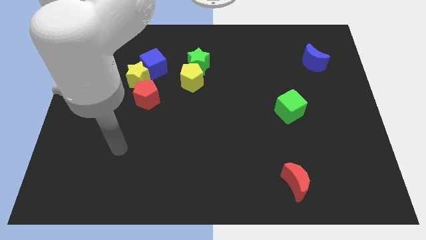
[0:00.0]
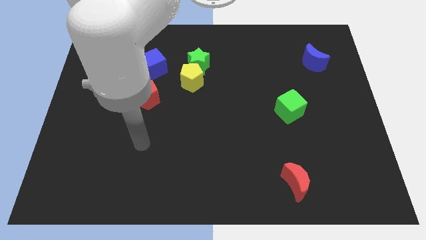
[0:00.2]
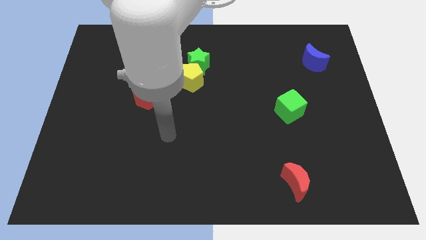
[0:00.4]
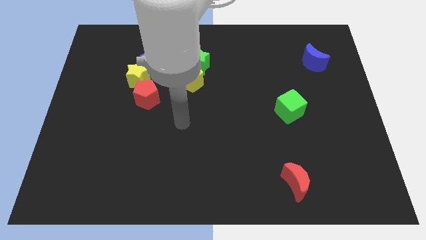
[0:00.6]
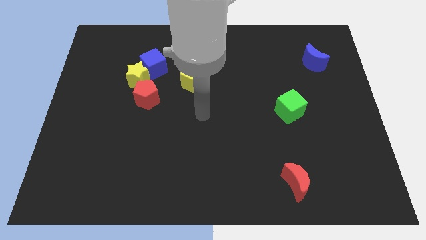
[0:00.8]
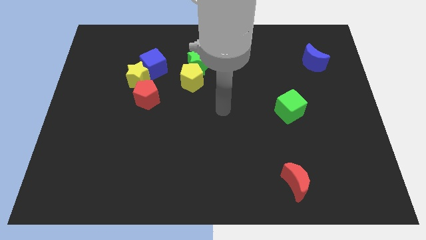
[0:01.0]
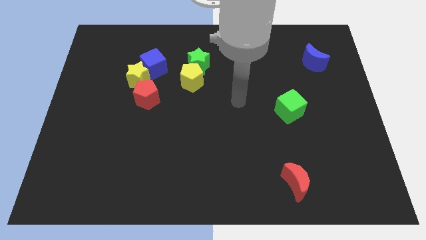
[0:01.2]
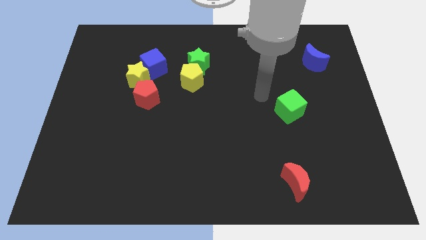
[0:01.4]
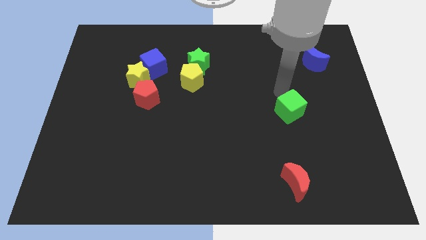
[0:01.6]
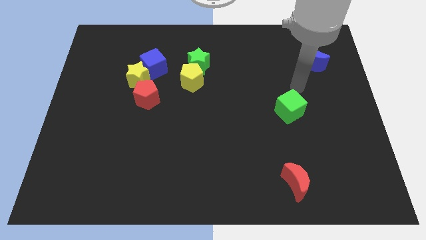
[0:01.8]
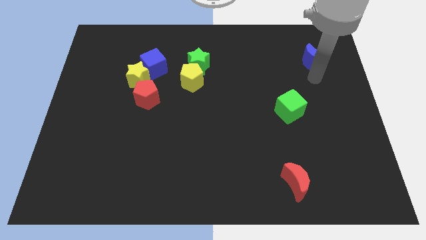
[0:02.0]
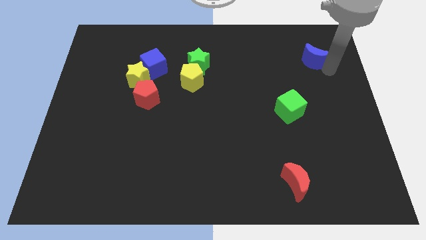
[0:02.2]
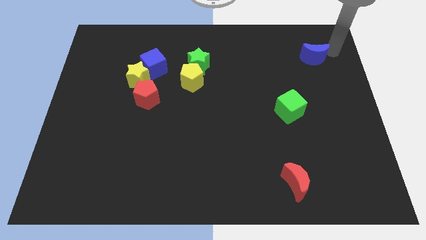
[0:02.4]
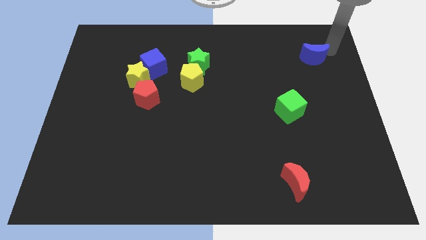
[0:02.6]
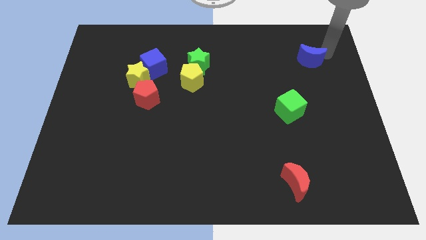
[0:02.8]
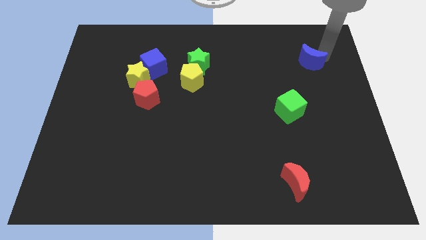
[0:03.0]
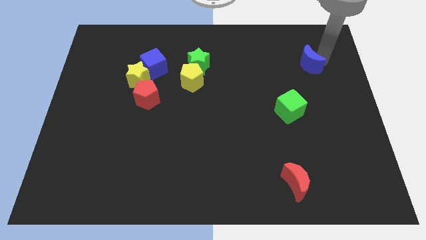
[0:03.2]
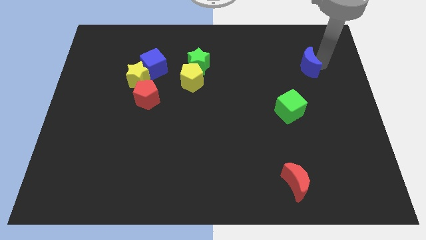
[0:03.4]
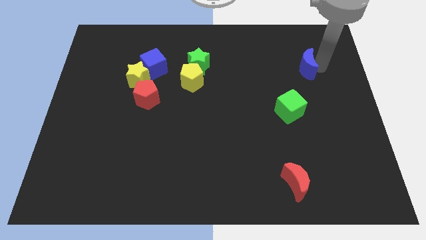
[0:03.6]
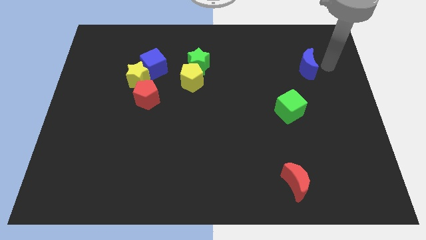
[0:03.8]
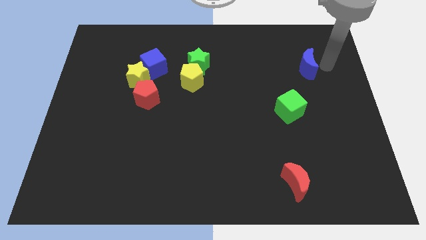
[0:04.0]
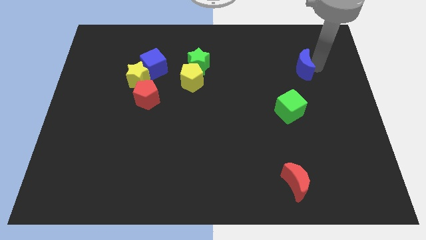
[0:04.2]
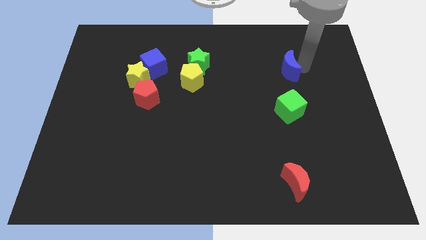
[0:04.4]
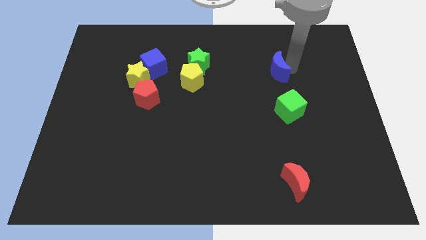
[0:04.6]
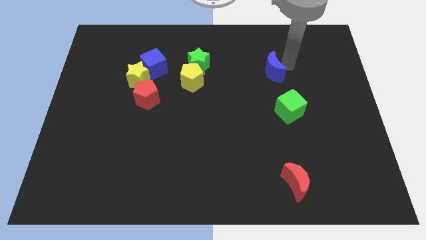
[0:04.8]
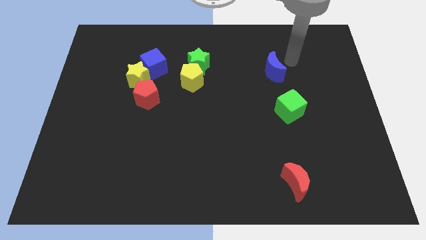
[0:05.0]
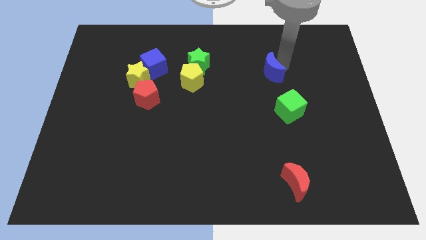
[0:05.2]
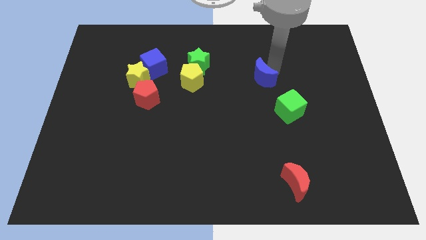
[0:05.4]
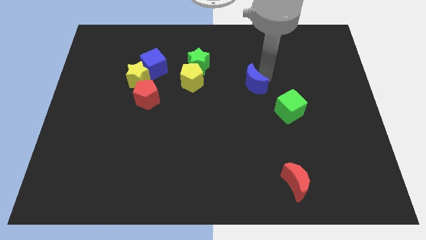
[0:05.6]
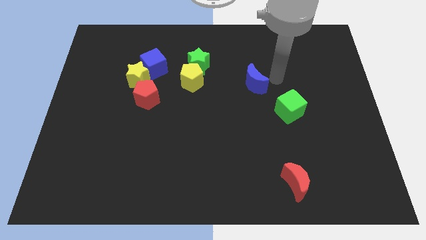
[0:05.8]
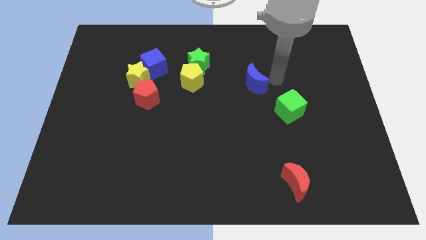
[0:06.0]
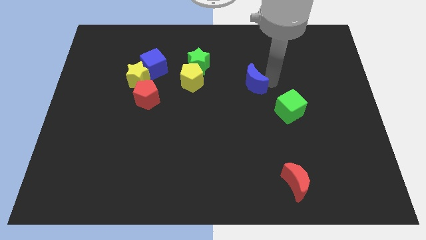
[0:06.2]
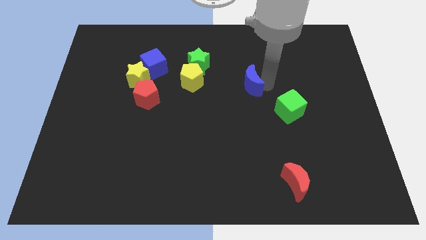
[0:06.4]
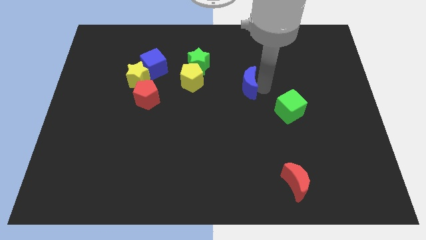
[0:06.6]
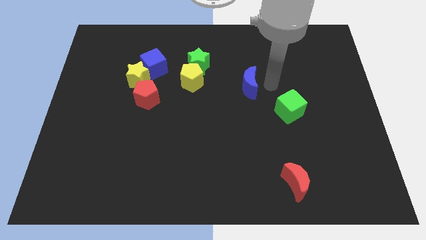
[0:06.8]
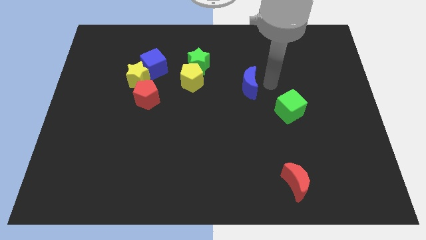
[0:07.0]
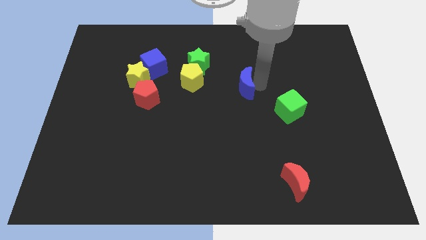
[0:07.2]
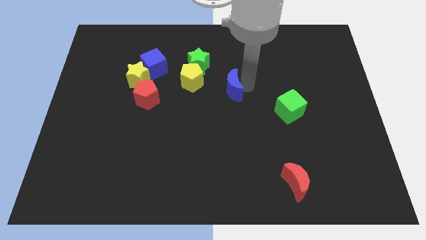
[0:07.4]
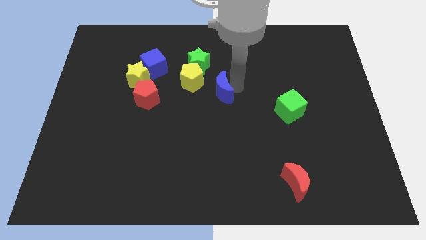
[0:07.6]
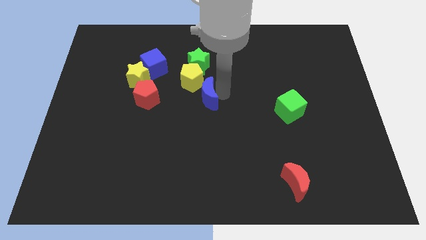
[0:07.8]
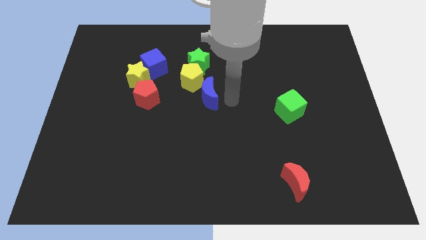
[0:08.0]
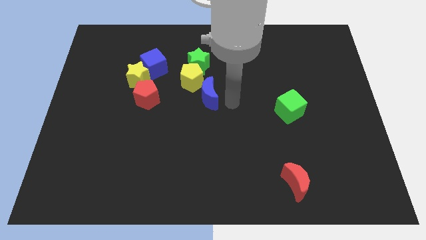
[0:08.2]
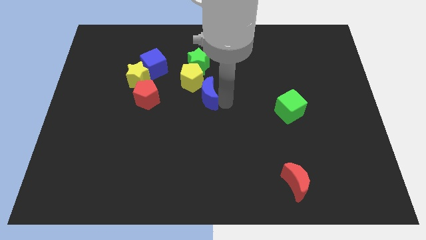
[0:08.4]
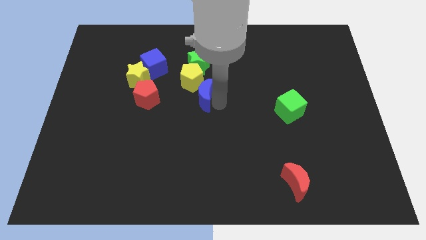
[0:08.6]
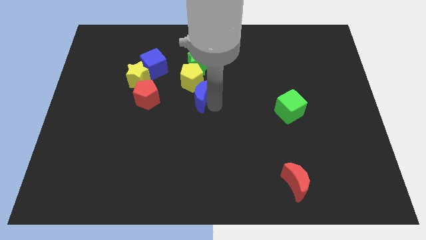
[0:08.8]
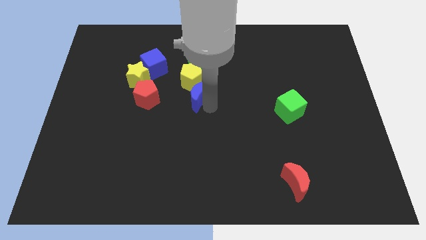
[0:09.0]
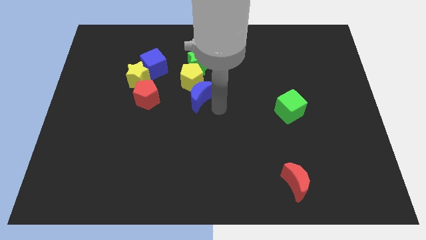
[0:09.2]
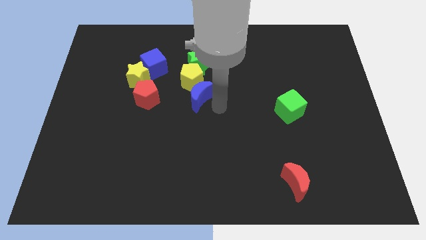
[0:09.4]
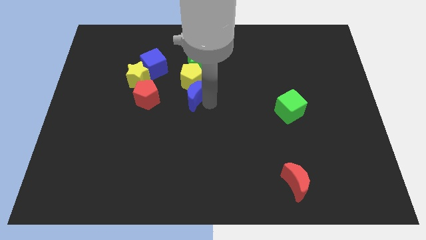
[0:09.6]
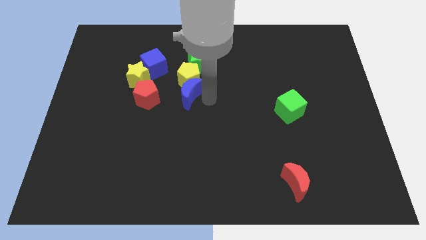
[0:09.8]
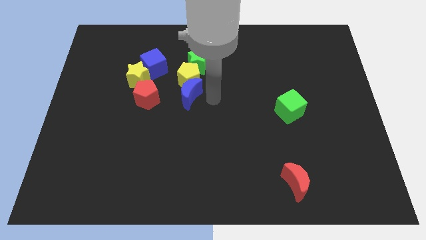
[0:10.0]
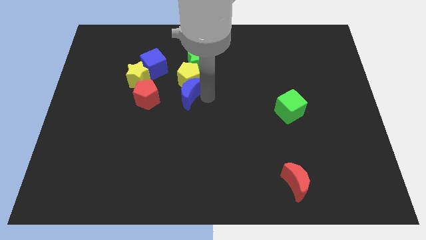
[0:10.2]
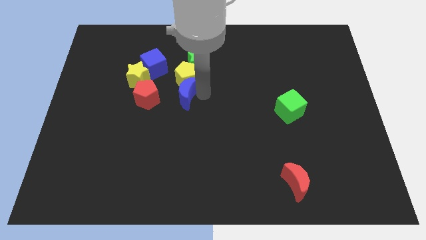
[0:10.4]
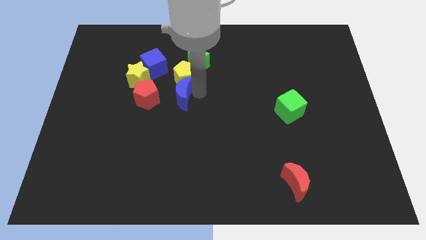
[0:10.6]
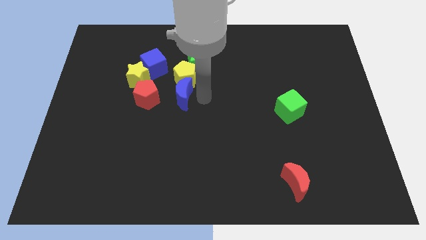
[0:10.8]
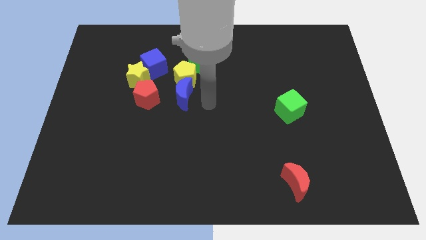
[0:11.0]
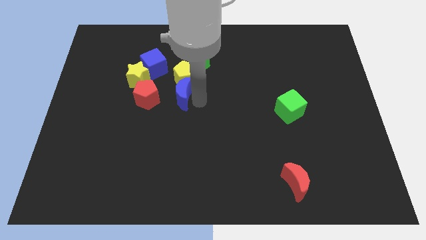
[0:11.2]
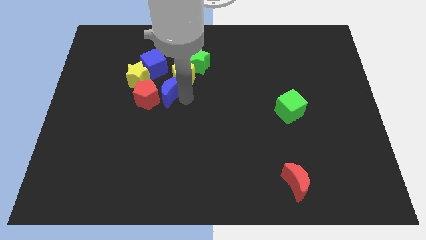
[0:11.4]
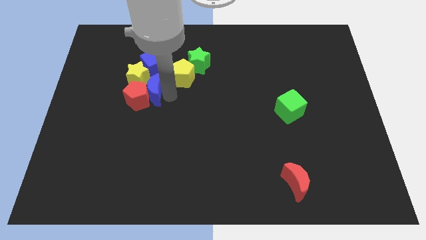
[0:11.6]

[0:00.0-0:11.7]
slide the blue moon close to the yellow star
